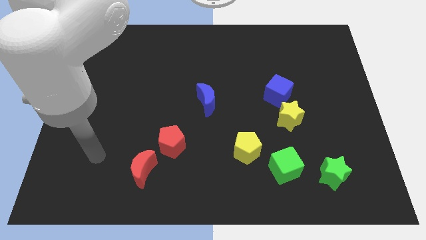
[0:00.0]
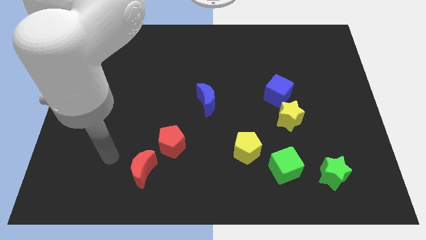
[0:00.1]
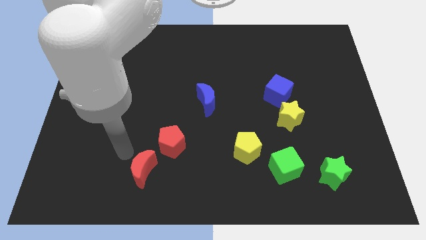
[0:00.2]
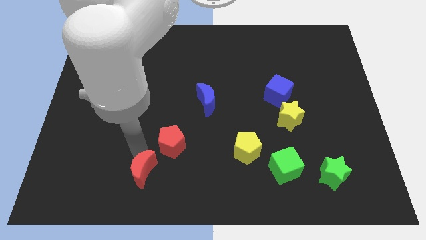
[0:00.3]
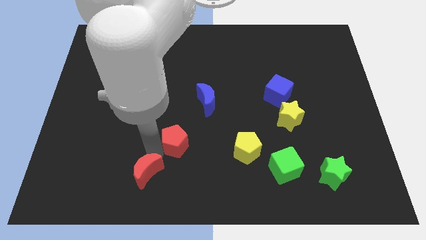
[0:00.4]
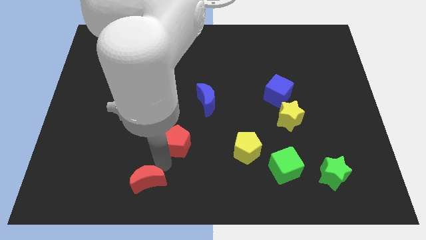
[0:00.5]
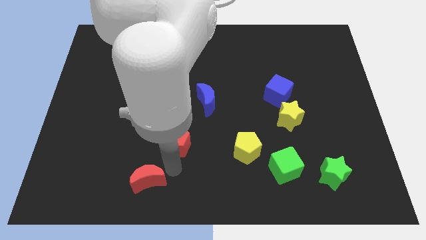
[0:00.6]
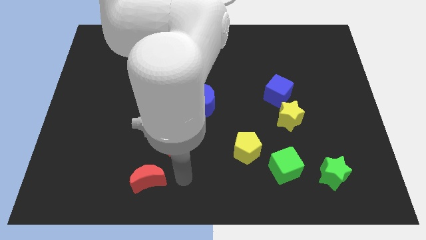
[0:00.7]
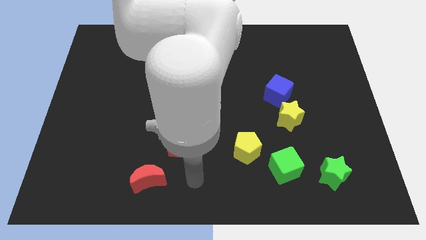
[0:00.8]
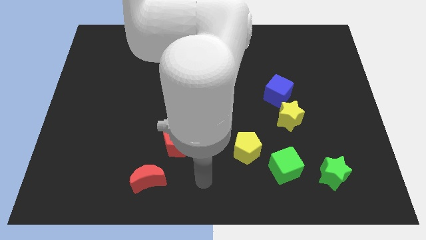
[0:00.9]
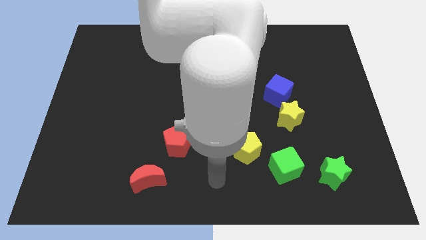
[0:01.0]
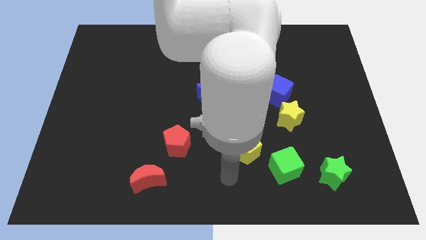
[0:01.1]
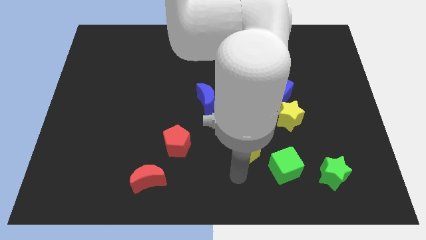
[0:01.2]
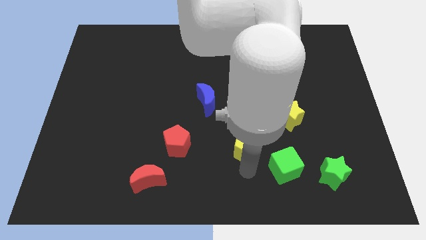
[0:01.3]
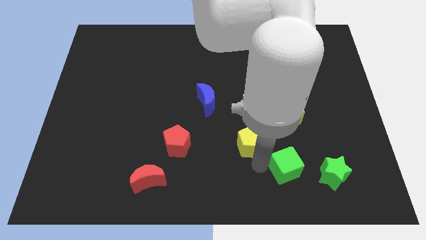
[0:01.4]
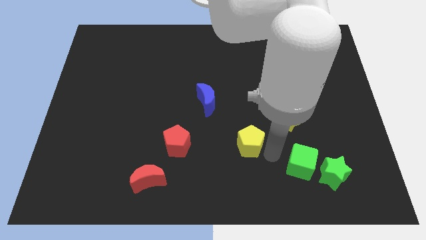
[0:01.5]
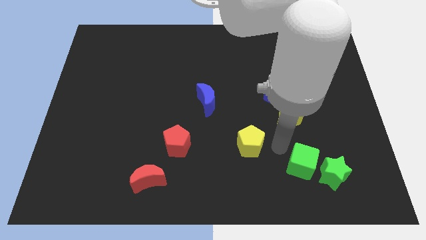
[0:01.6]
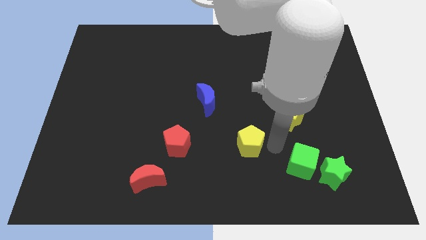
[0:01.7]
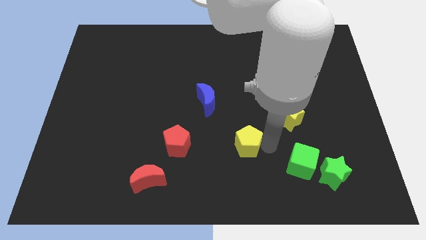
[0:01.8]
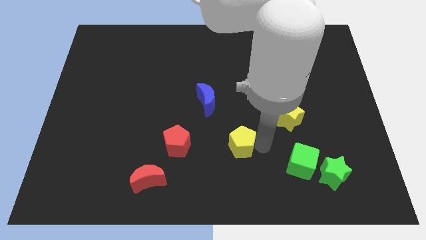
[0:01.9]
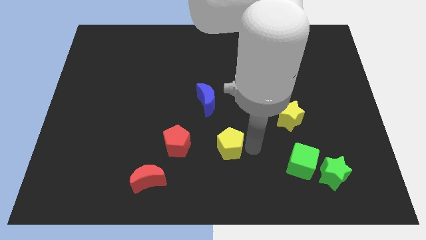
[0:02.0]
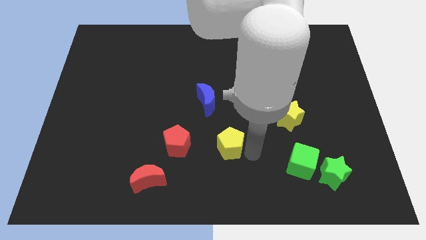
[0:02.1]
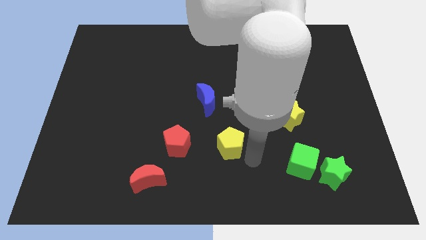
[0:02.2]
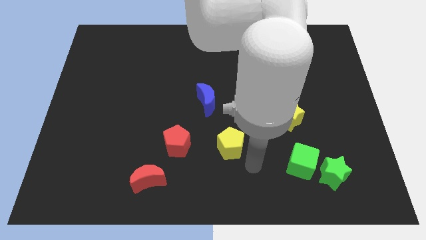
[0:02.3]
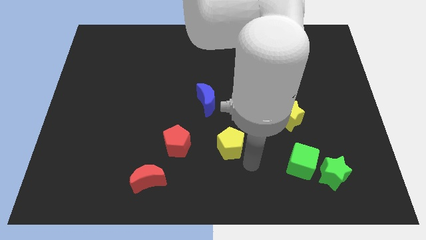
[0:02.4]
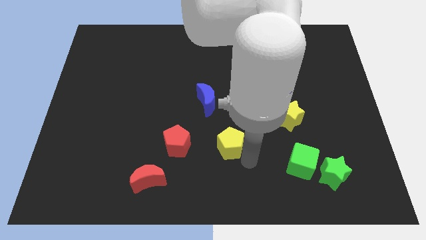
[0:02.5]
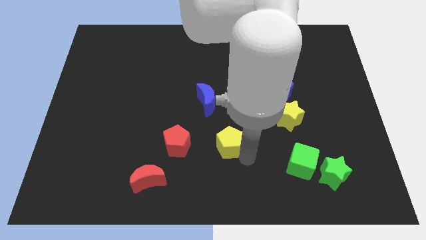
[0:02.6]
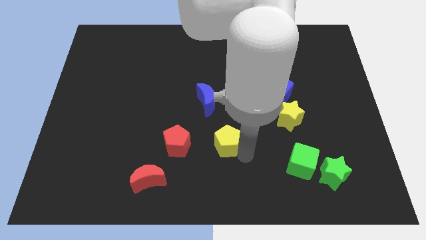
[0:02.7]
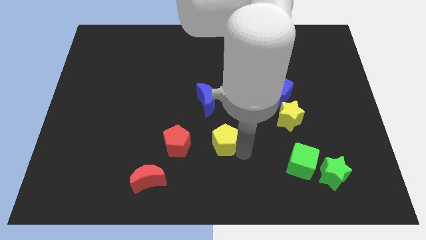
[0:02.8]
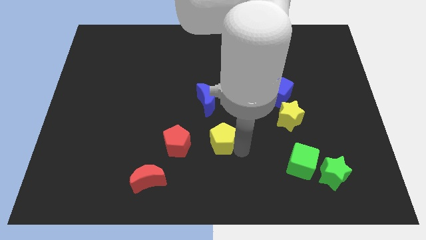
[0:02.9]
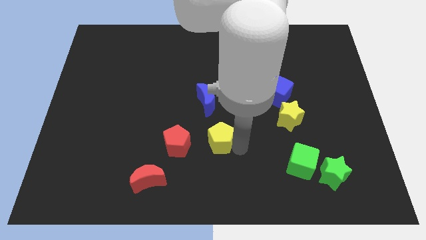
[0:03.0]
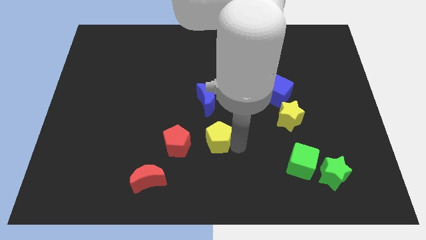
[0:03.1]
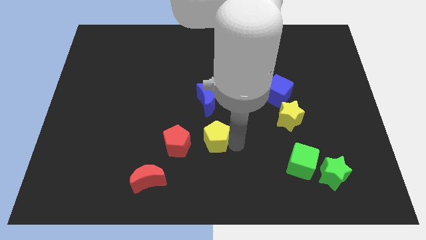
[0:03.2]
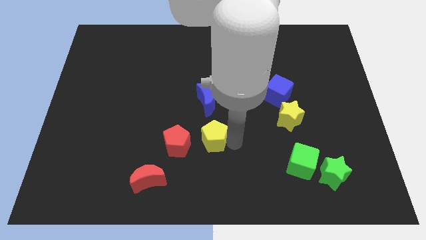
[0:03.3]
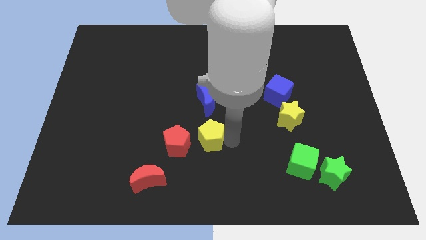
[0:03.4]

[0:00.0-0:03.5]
push the yellow pentagon to the left a little bit

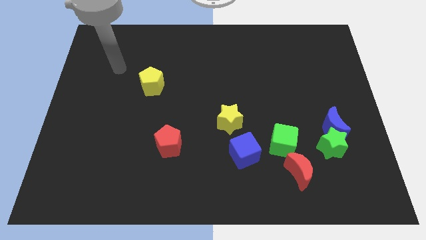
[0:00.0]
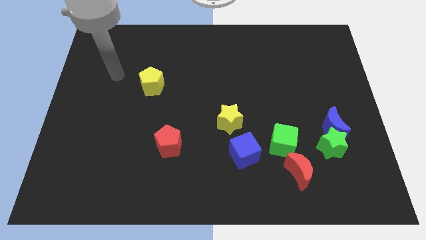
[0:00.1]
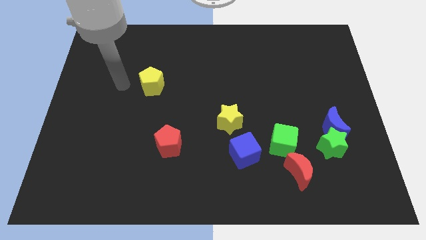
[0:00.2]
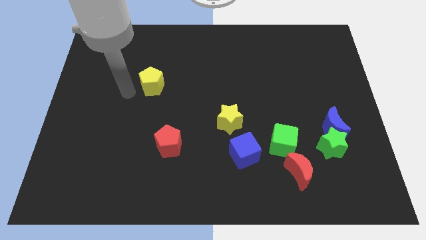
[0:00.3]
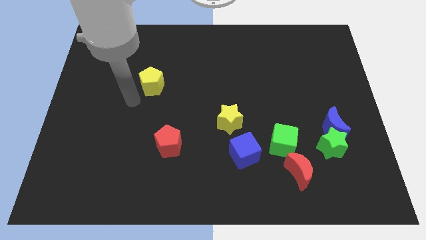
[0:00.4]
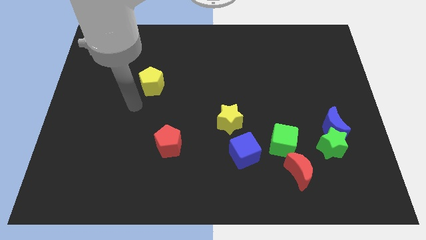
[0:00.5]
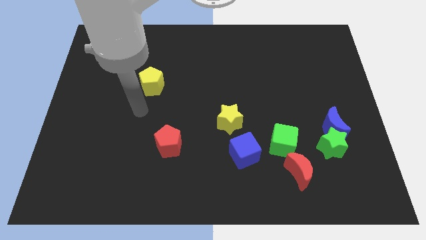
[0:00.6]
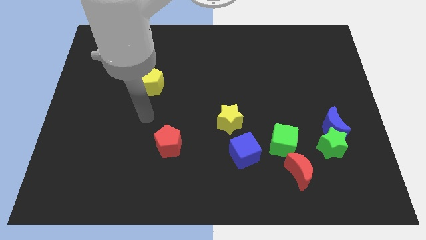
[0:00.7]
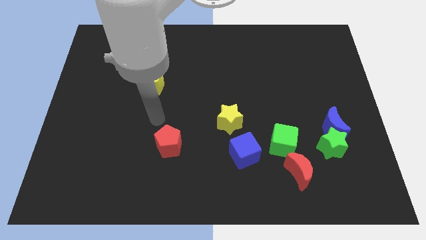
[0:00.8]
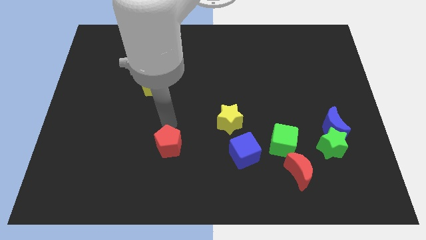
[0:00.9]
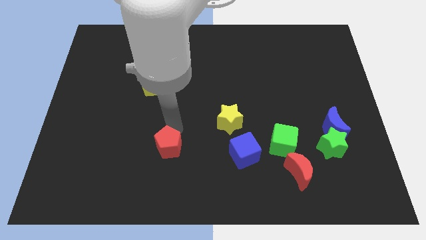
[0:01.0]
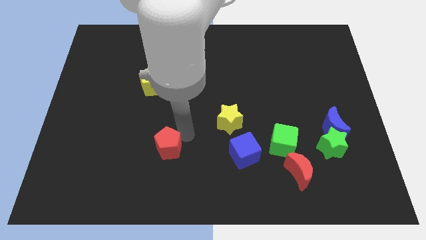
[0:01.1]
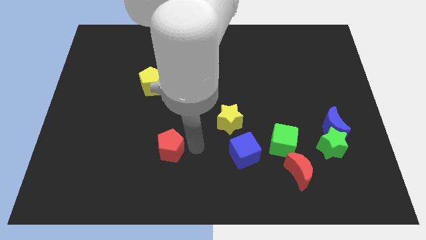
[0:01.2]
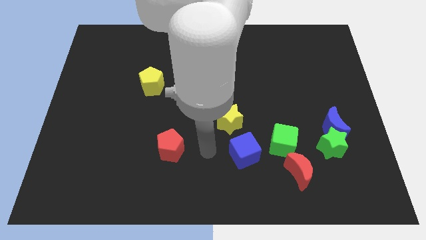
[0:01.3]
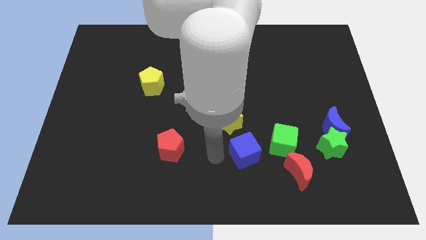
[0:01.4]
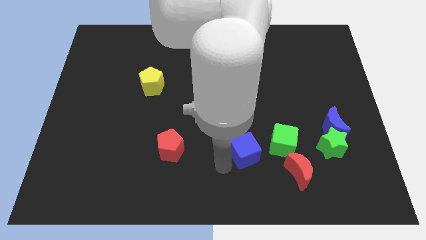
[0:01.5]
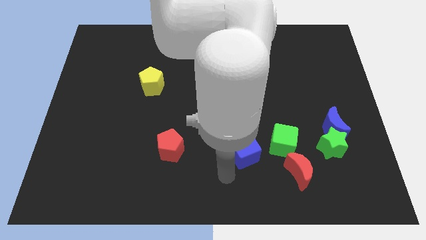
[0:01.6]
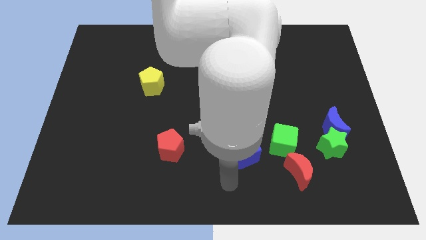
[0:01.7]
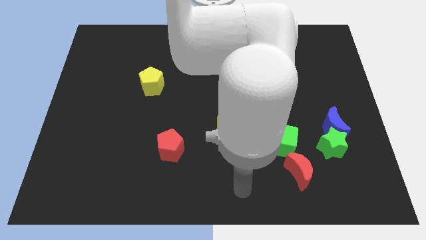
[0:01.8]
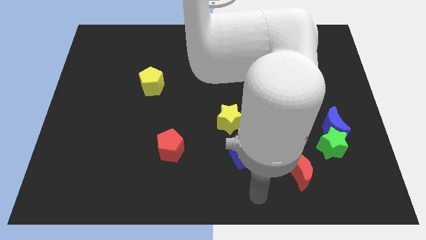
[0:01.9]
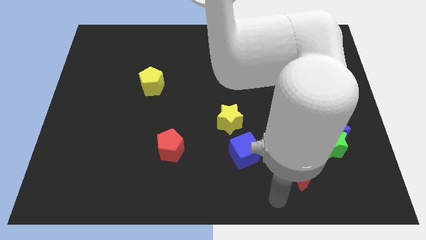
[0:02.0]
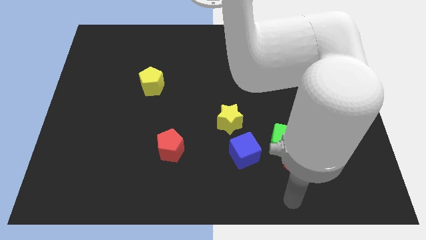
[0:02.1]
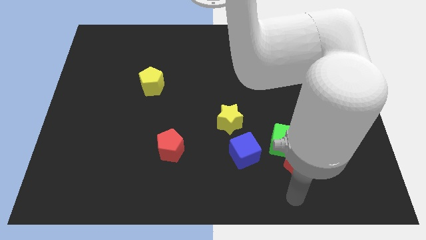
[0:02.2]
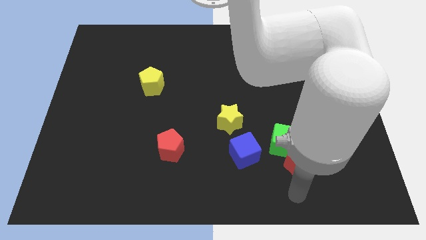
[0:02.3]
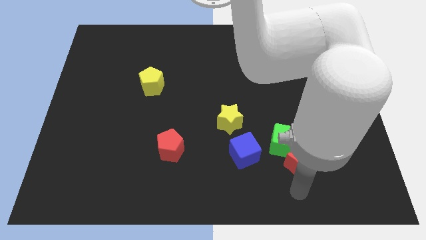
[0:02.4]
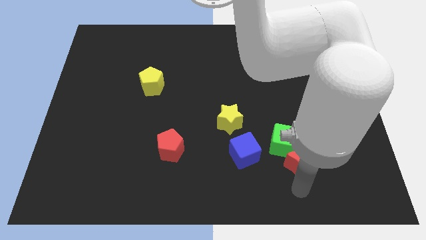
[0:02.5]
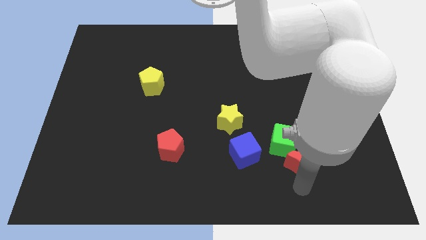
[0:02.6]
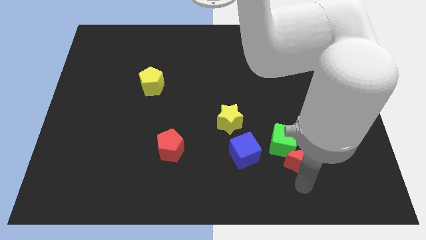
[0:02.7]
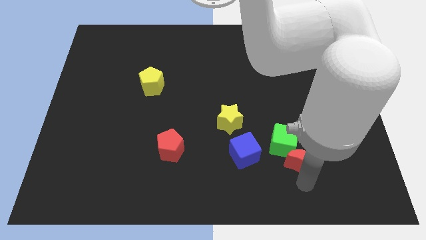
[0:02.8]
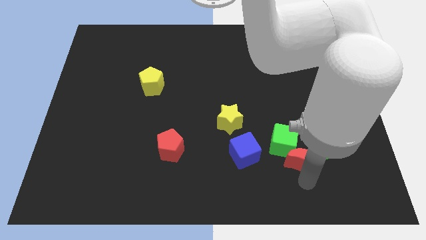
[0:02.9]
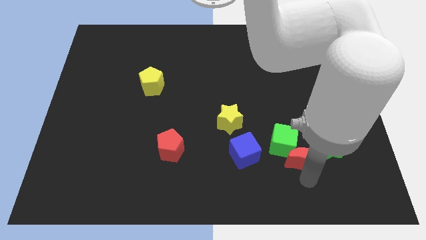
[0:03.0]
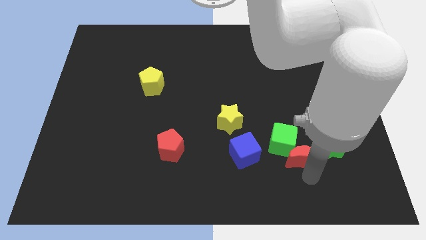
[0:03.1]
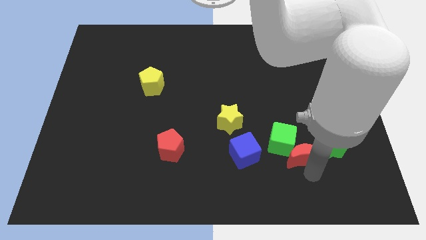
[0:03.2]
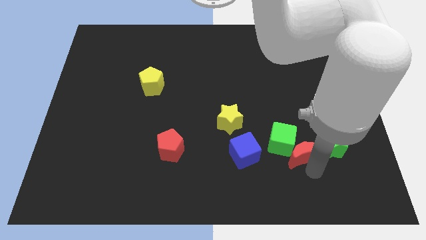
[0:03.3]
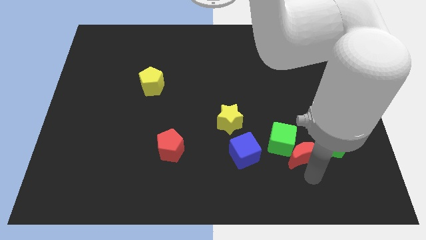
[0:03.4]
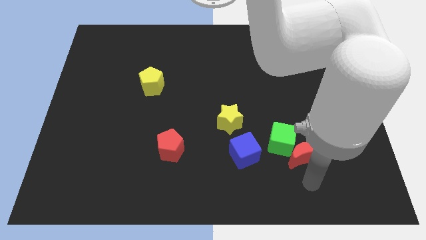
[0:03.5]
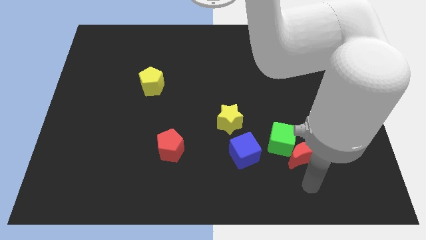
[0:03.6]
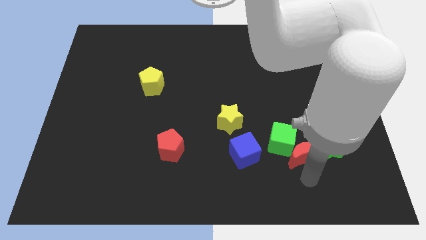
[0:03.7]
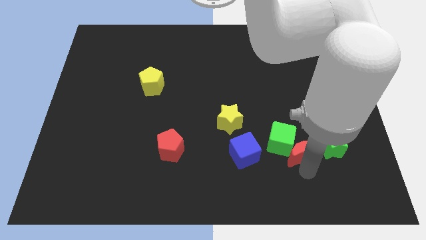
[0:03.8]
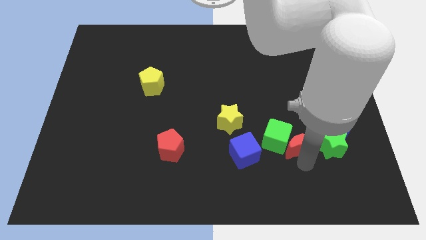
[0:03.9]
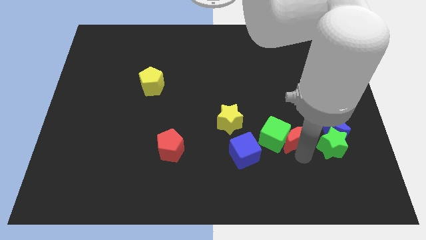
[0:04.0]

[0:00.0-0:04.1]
move the red moon slightly up

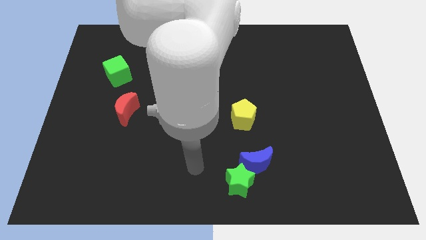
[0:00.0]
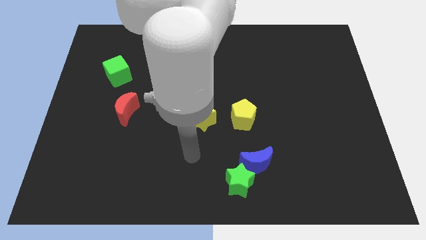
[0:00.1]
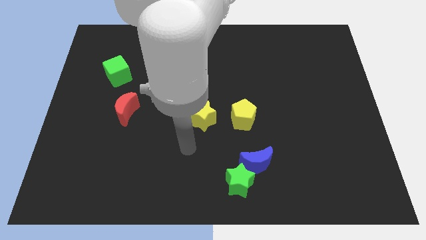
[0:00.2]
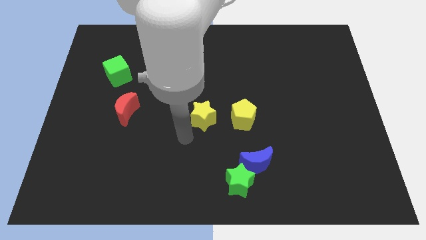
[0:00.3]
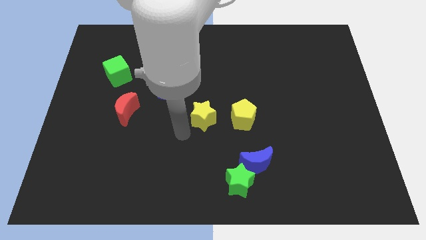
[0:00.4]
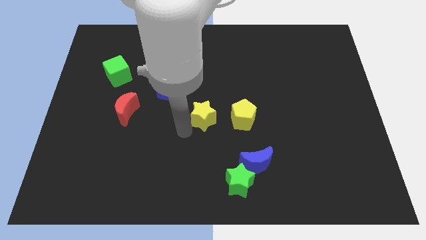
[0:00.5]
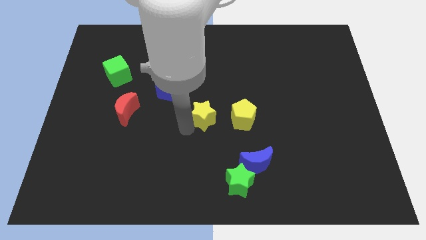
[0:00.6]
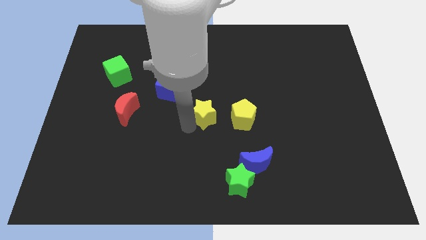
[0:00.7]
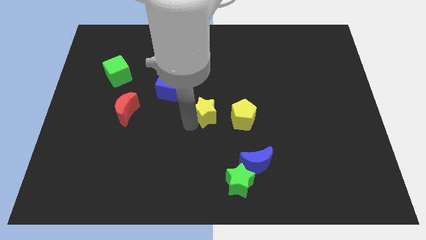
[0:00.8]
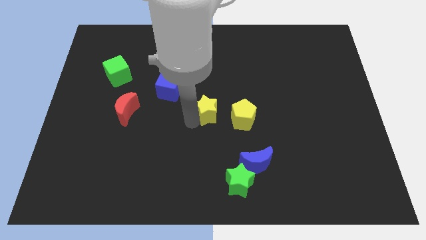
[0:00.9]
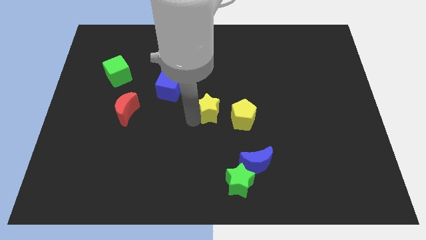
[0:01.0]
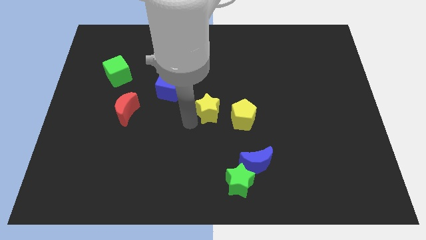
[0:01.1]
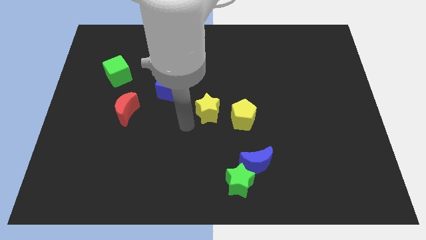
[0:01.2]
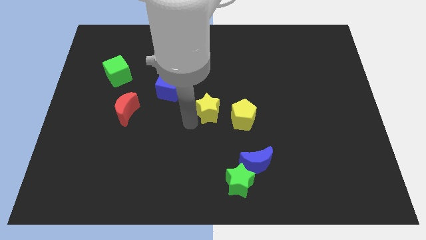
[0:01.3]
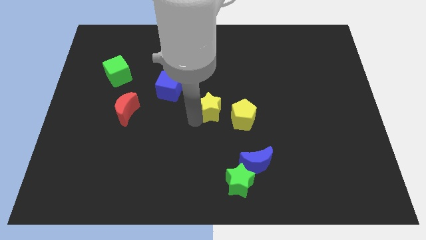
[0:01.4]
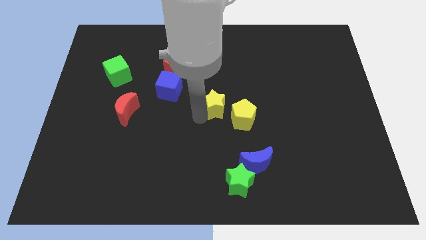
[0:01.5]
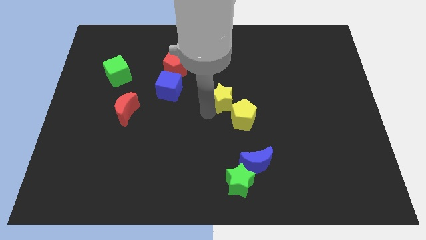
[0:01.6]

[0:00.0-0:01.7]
push the yellow star somewhat diagonally up and right
